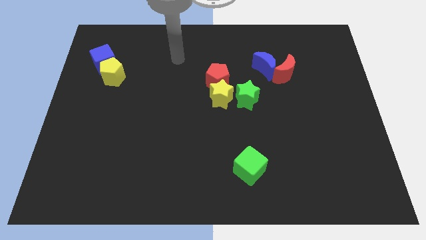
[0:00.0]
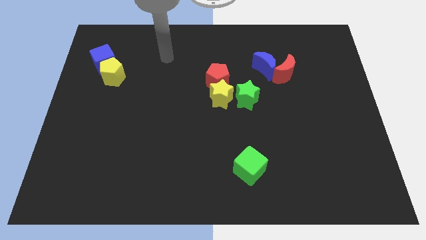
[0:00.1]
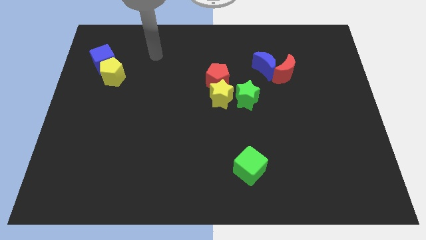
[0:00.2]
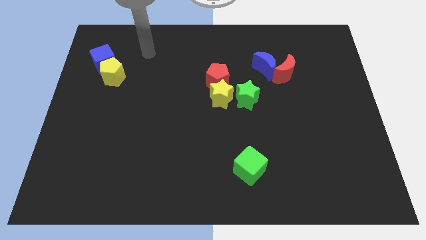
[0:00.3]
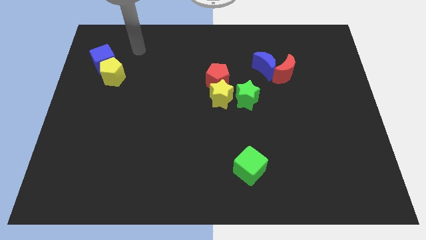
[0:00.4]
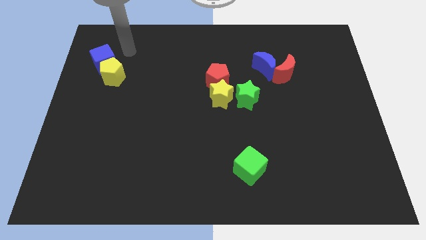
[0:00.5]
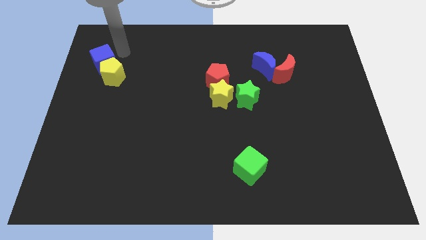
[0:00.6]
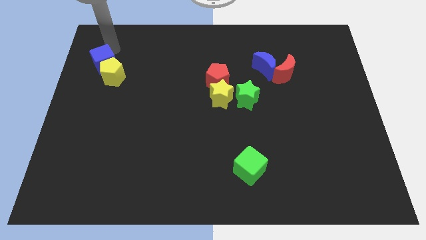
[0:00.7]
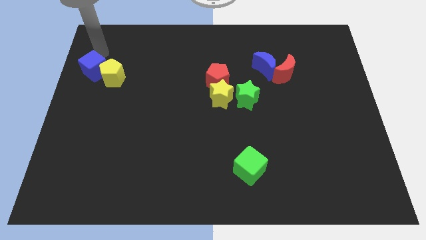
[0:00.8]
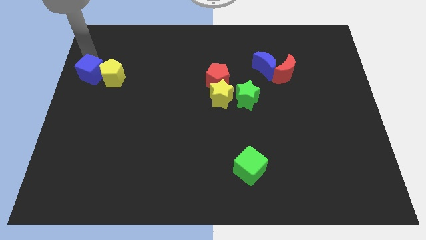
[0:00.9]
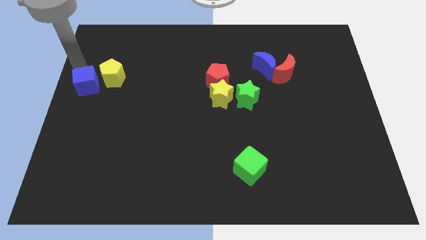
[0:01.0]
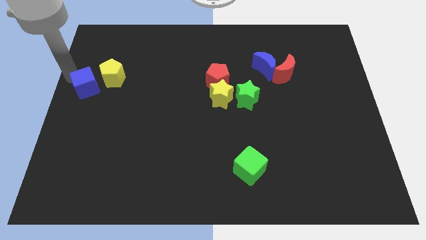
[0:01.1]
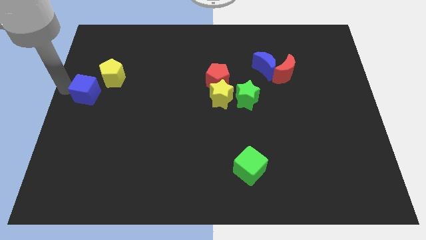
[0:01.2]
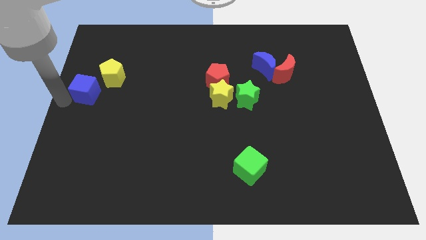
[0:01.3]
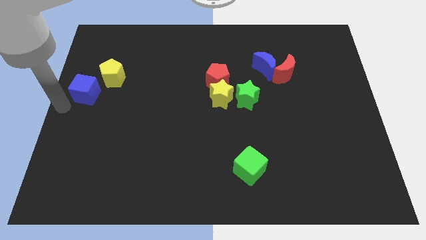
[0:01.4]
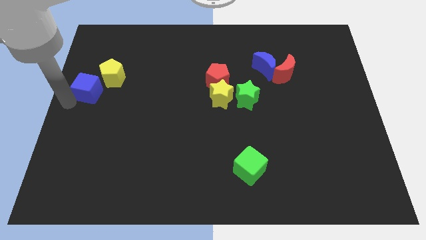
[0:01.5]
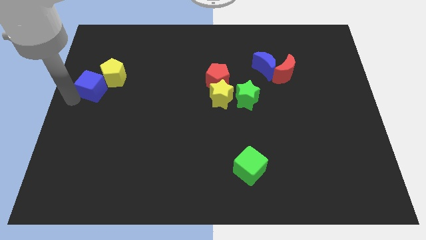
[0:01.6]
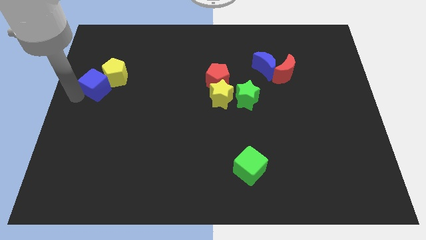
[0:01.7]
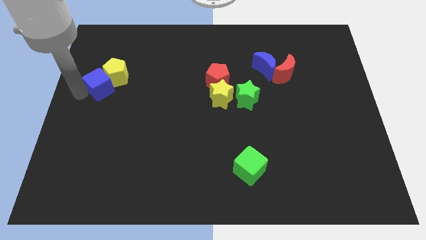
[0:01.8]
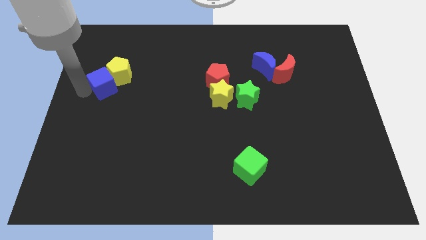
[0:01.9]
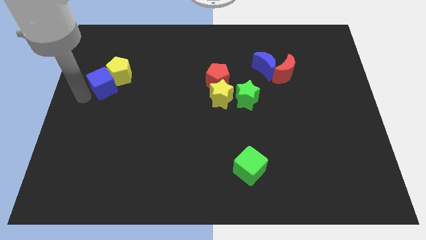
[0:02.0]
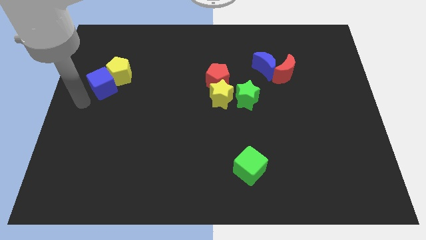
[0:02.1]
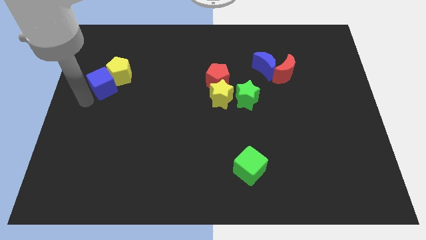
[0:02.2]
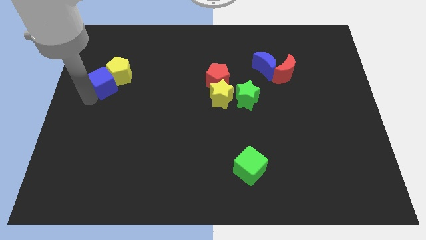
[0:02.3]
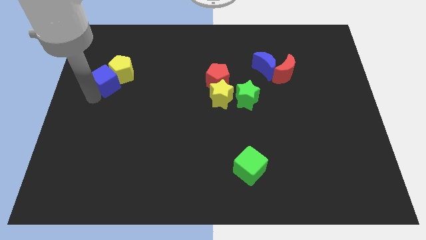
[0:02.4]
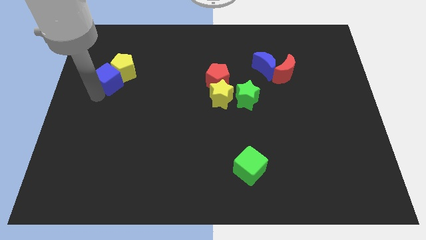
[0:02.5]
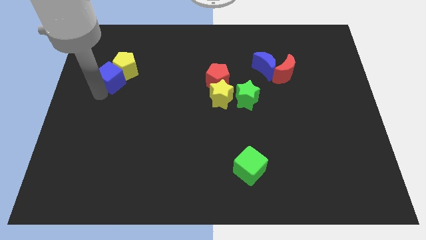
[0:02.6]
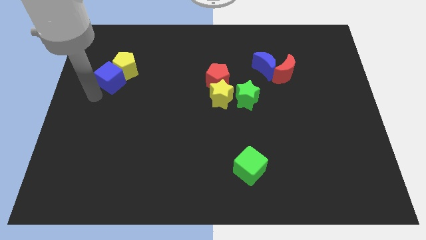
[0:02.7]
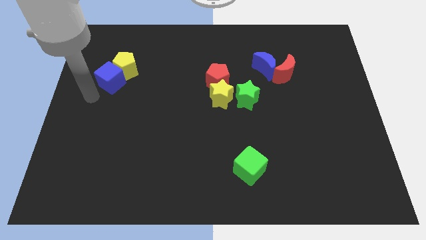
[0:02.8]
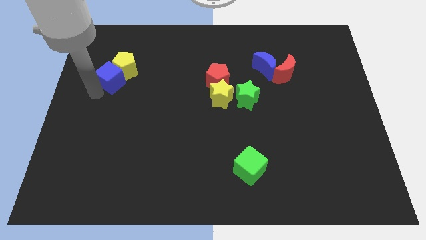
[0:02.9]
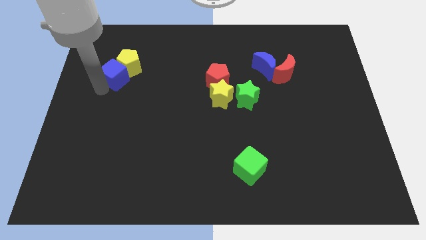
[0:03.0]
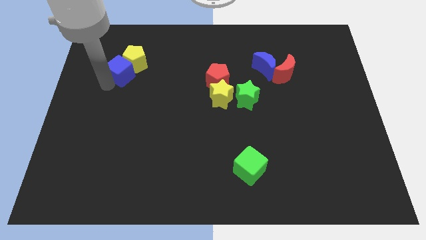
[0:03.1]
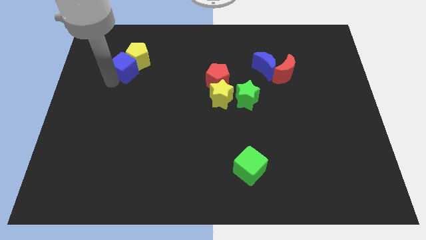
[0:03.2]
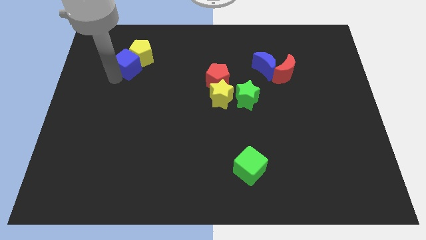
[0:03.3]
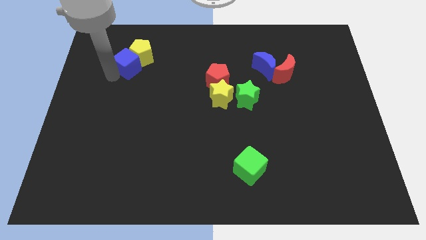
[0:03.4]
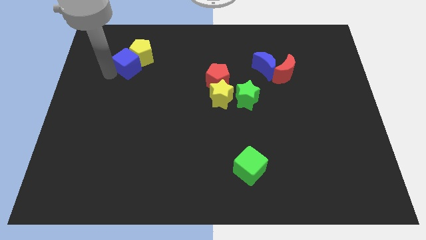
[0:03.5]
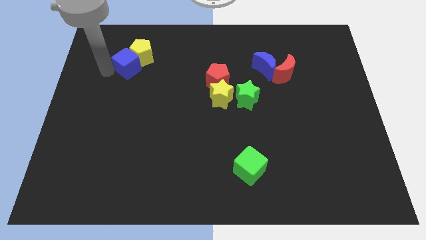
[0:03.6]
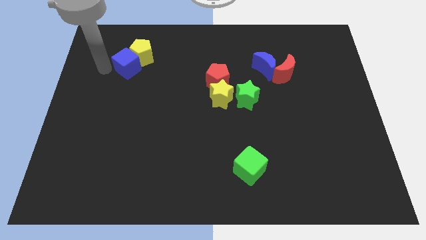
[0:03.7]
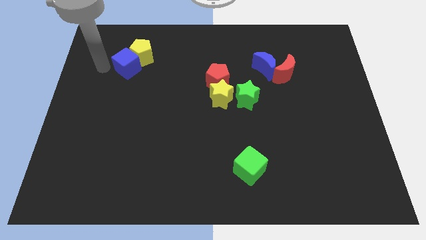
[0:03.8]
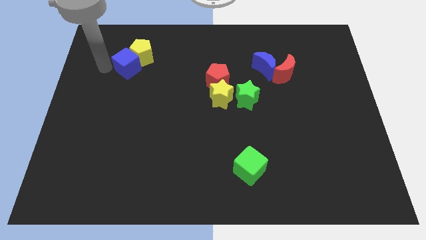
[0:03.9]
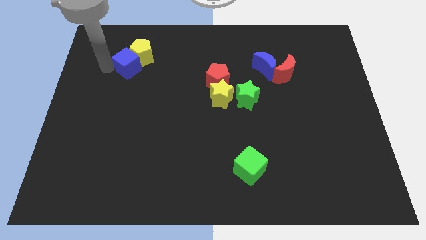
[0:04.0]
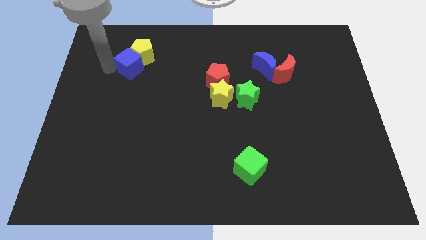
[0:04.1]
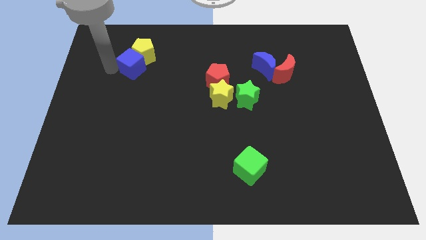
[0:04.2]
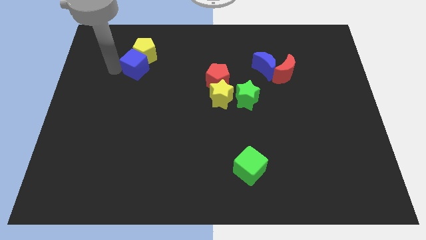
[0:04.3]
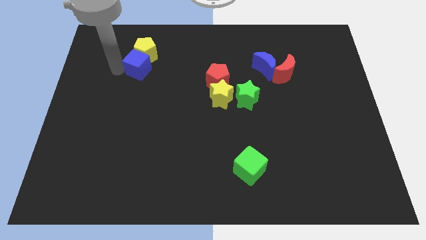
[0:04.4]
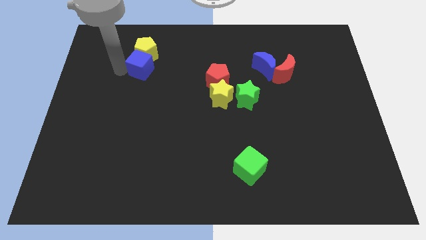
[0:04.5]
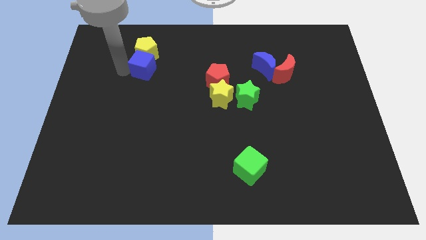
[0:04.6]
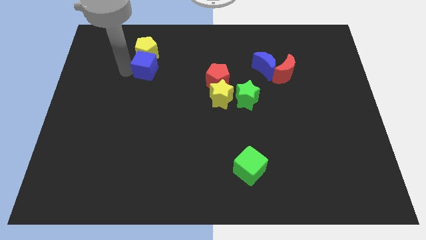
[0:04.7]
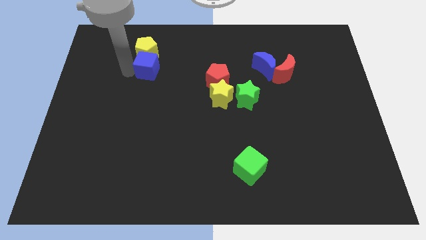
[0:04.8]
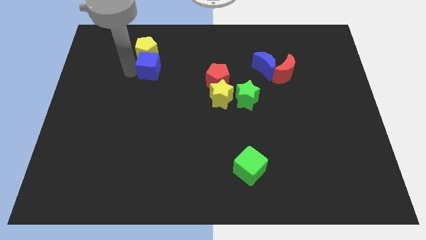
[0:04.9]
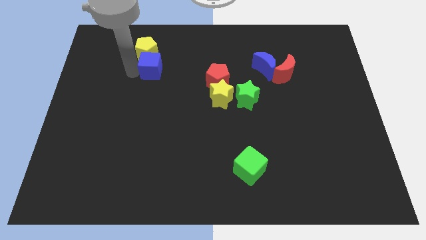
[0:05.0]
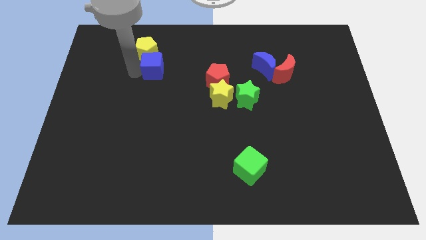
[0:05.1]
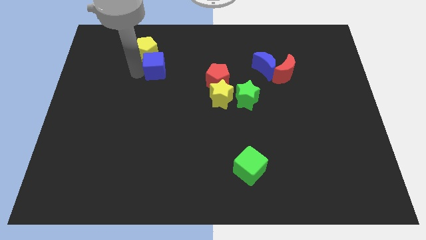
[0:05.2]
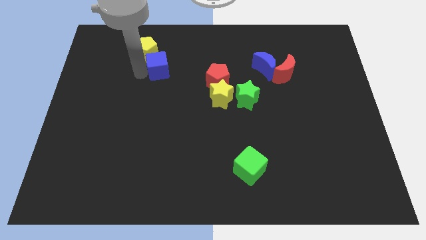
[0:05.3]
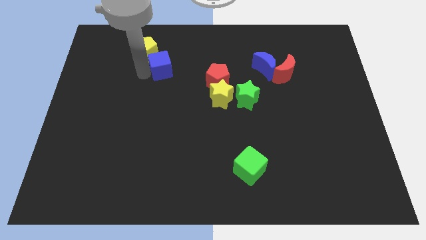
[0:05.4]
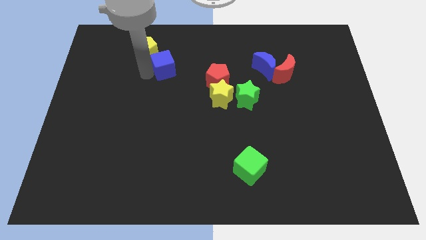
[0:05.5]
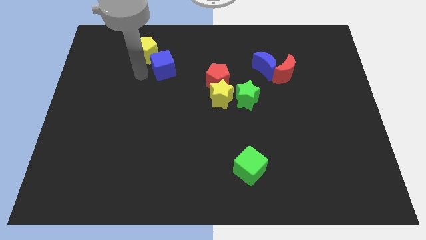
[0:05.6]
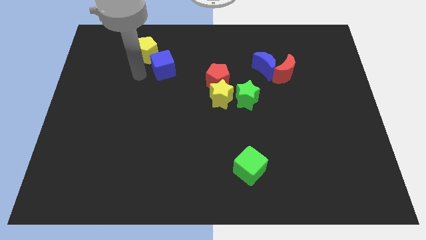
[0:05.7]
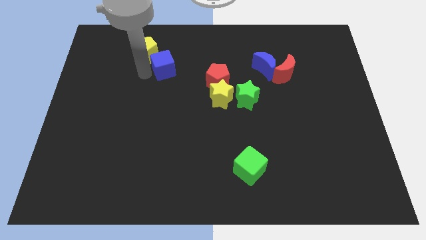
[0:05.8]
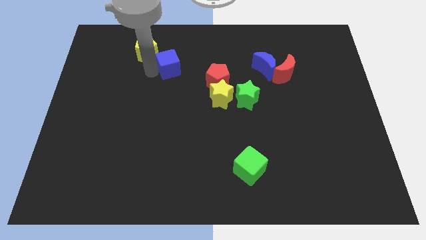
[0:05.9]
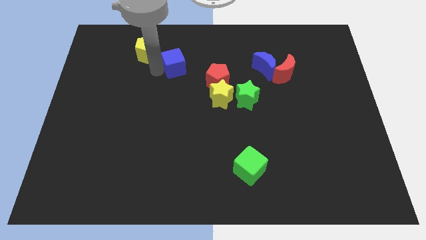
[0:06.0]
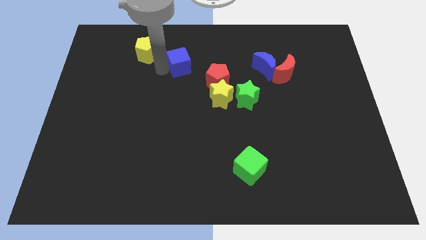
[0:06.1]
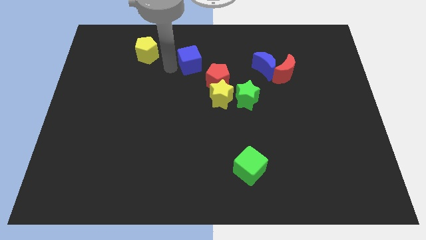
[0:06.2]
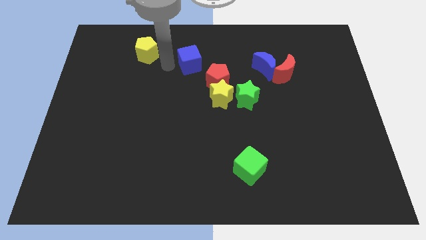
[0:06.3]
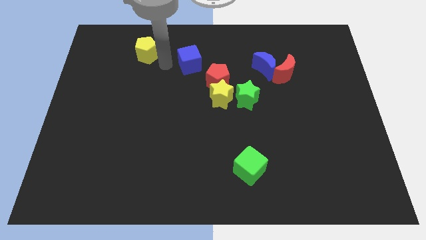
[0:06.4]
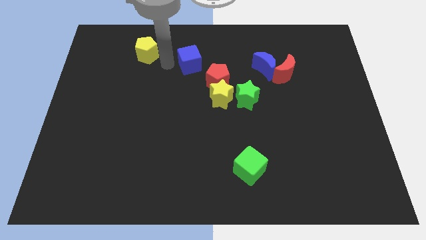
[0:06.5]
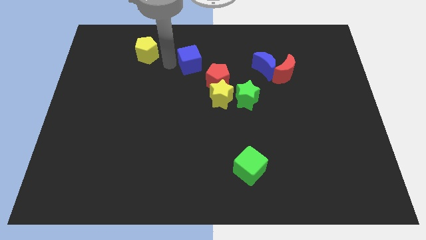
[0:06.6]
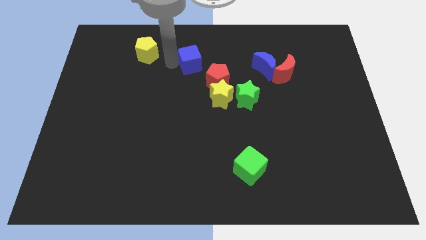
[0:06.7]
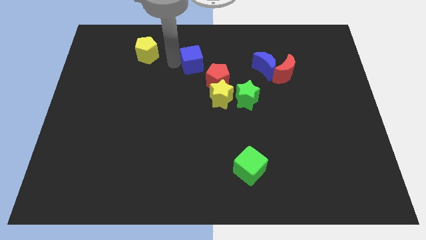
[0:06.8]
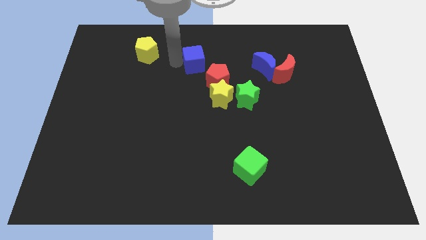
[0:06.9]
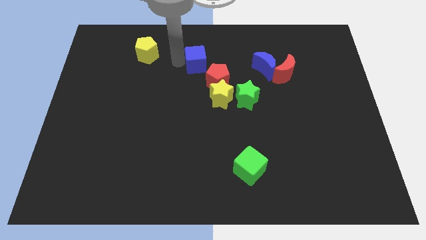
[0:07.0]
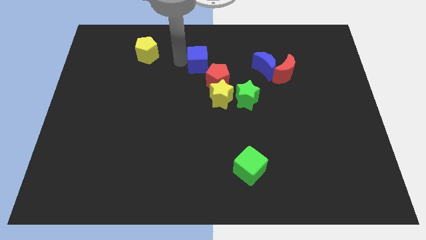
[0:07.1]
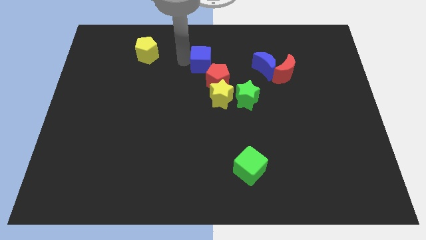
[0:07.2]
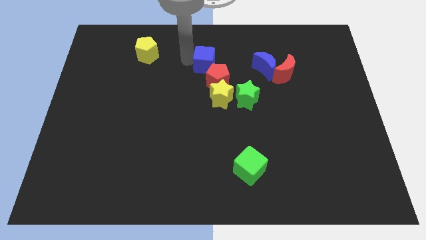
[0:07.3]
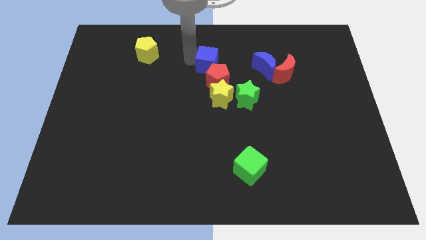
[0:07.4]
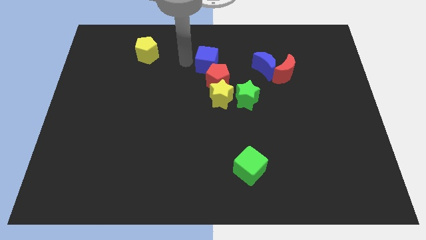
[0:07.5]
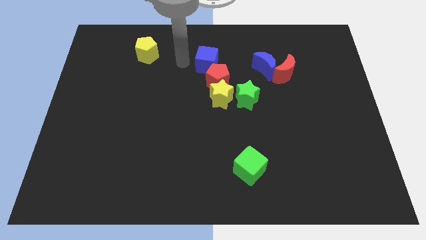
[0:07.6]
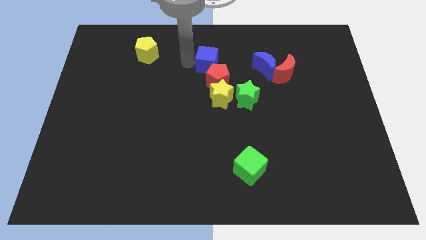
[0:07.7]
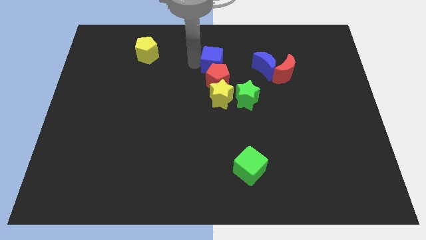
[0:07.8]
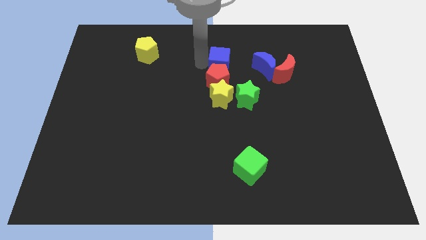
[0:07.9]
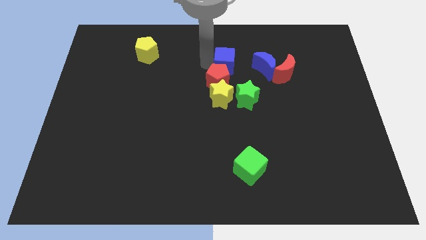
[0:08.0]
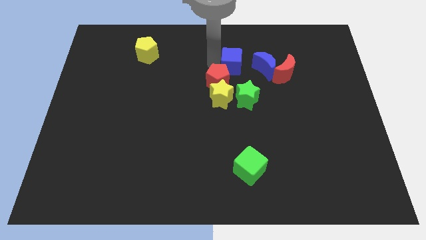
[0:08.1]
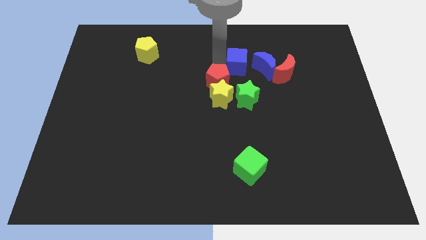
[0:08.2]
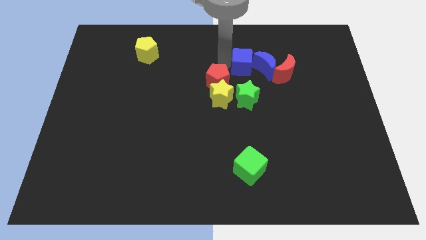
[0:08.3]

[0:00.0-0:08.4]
push the blue cube to the blue moon
